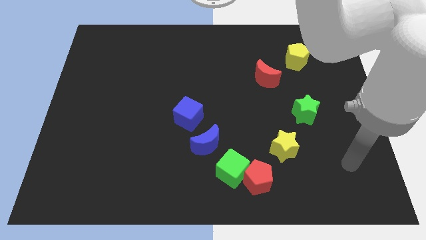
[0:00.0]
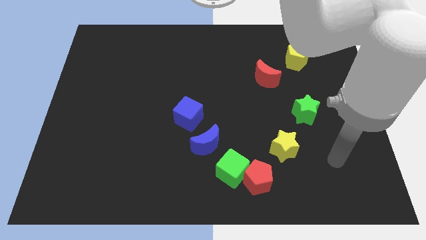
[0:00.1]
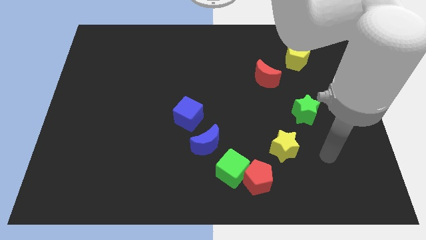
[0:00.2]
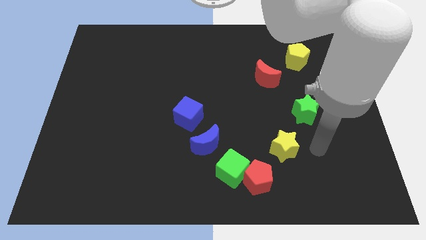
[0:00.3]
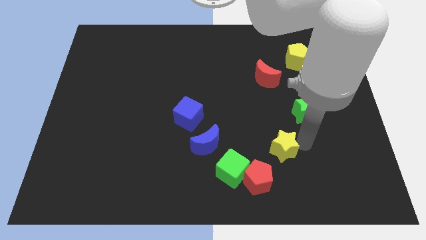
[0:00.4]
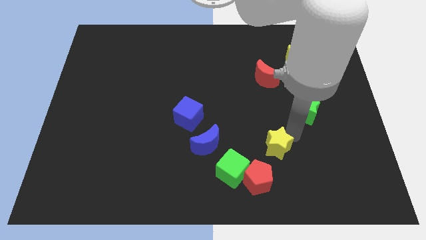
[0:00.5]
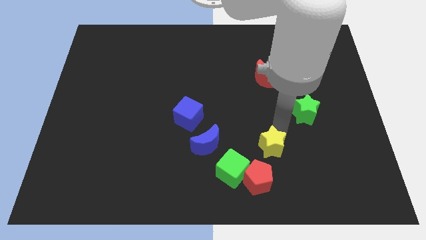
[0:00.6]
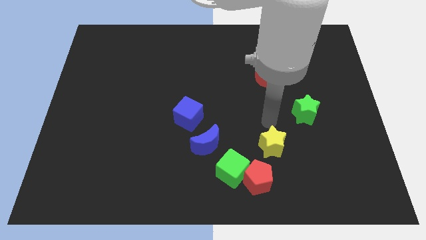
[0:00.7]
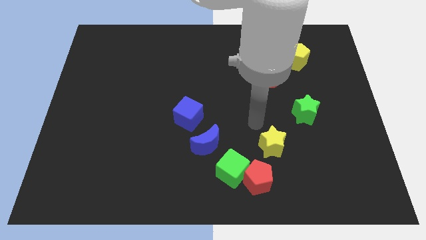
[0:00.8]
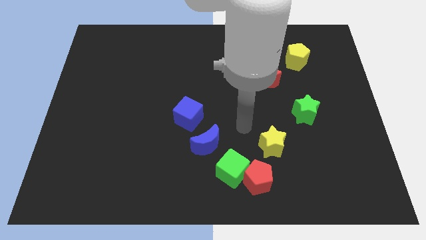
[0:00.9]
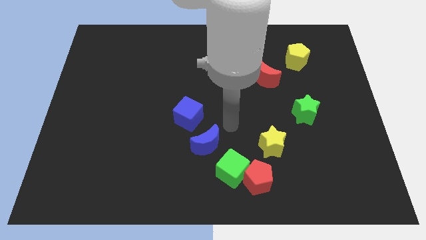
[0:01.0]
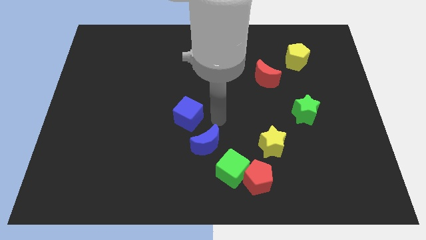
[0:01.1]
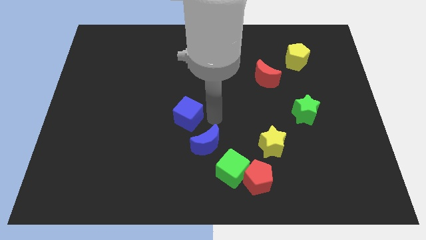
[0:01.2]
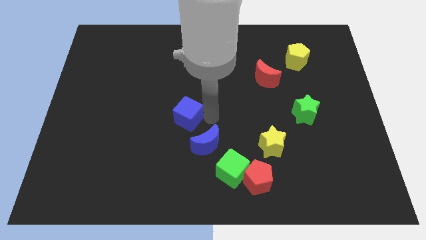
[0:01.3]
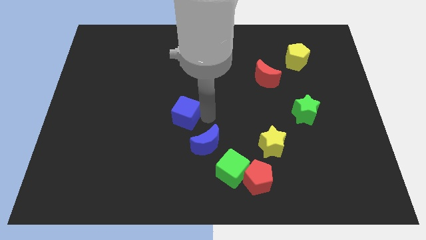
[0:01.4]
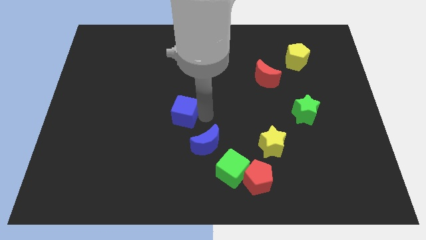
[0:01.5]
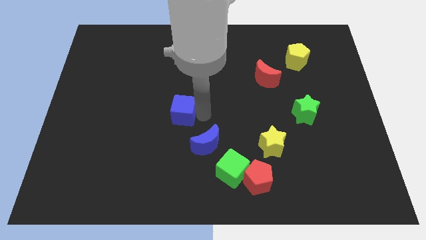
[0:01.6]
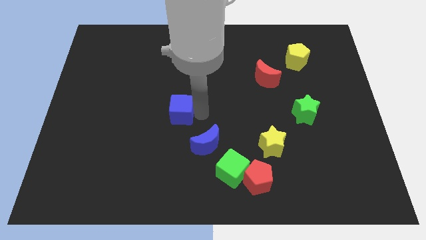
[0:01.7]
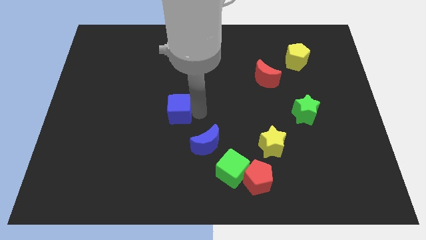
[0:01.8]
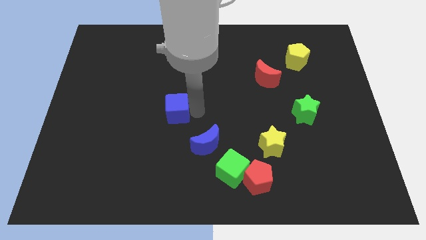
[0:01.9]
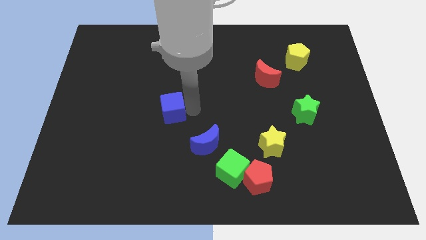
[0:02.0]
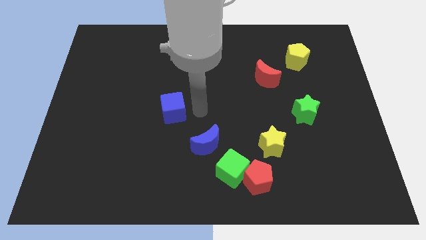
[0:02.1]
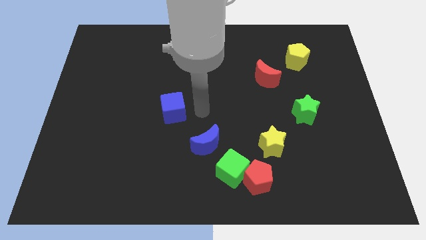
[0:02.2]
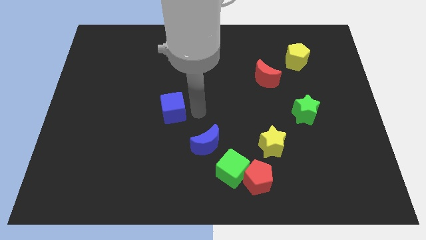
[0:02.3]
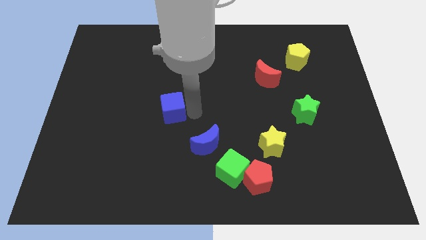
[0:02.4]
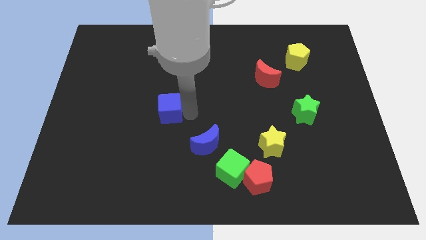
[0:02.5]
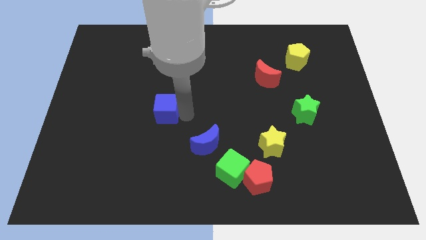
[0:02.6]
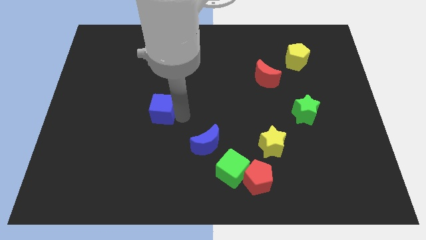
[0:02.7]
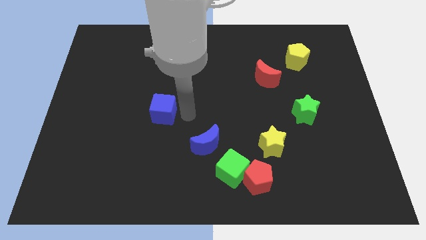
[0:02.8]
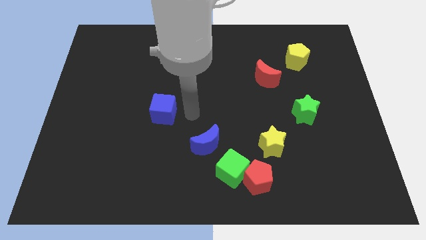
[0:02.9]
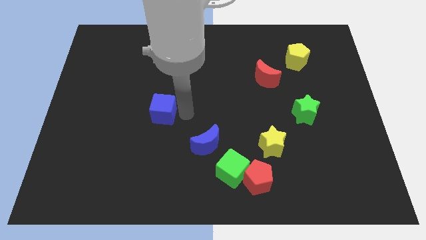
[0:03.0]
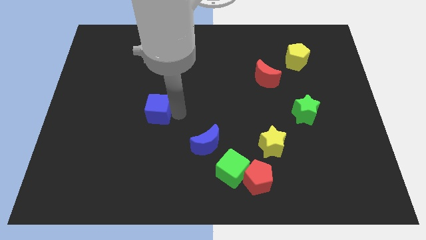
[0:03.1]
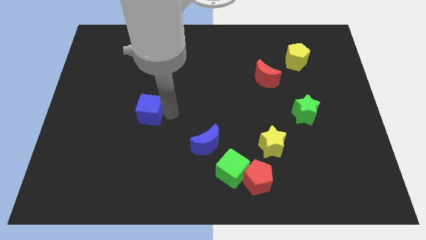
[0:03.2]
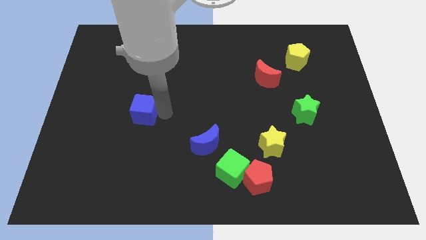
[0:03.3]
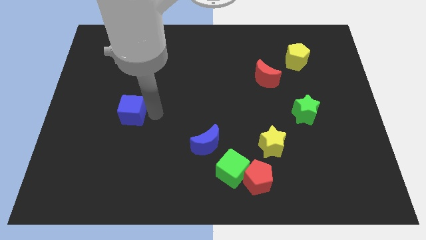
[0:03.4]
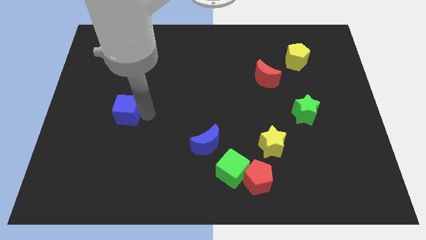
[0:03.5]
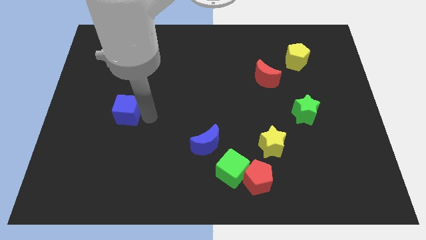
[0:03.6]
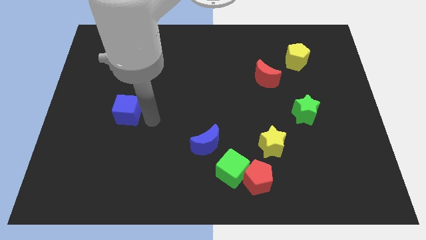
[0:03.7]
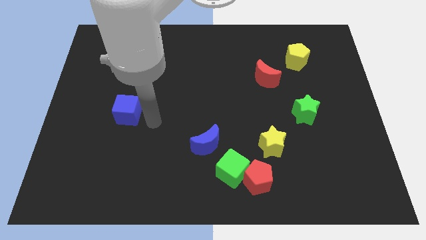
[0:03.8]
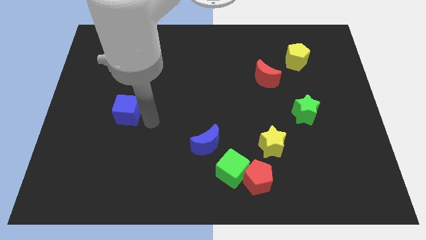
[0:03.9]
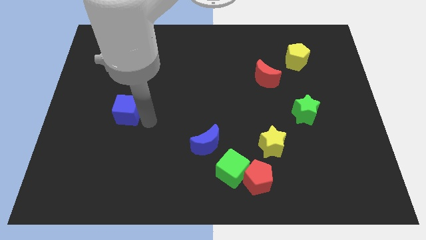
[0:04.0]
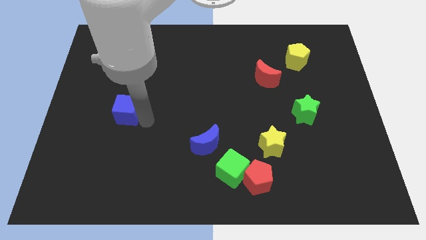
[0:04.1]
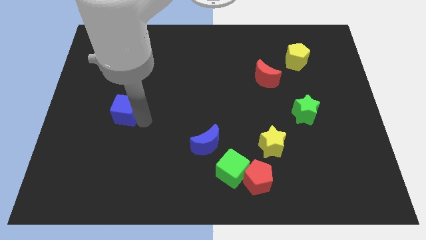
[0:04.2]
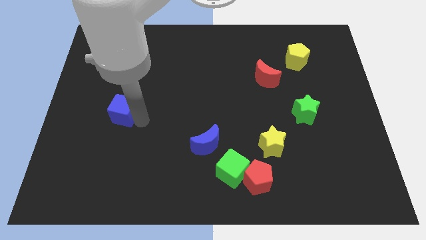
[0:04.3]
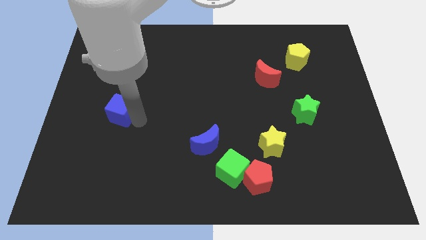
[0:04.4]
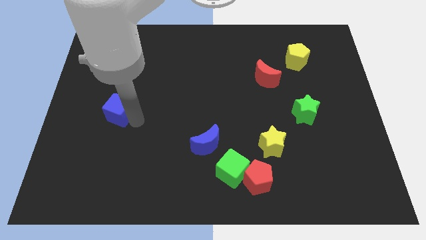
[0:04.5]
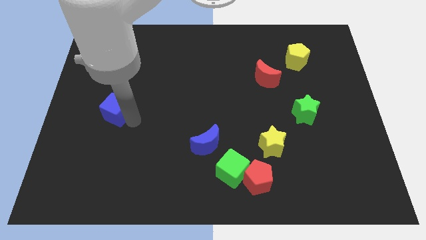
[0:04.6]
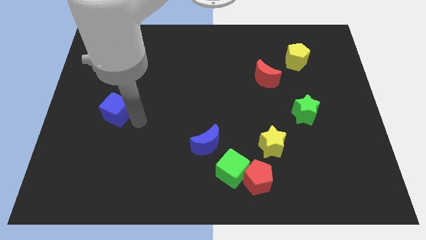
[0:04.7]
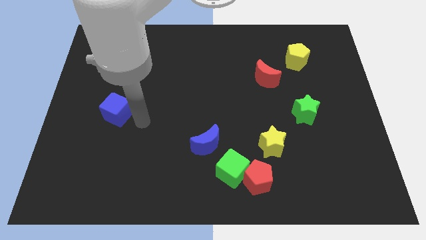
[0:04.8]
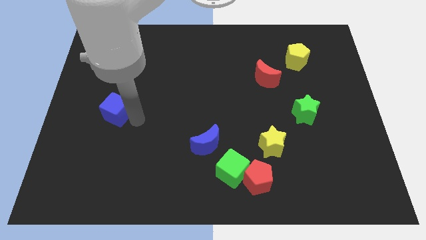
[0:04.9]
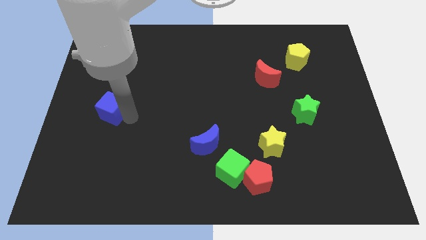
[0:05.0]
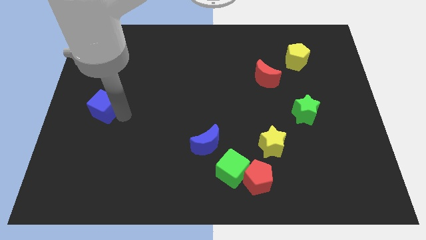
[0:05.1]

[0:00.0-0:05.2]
slide the blue cube to the left side of the board

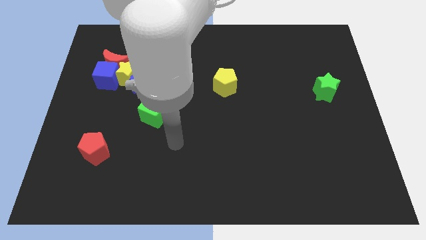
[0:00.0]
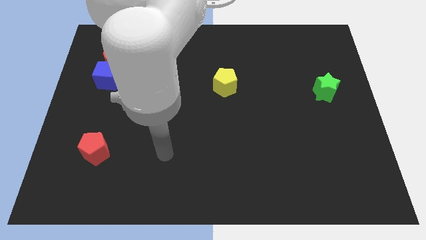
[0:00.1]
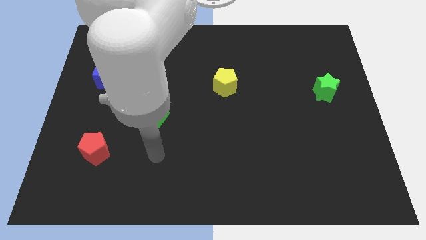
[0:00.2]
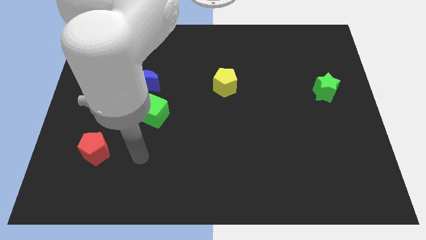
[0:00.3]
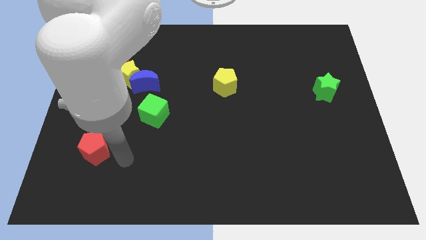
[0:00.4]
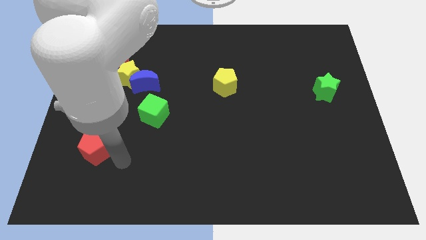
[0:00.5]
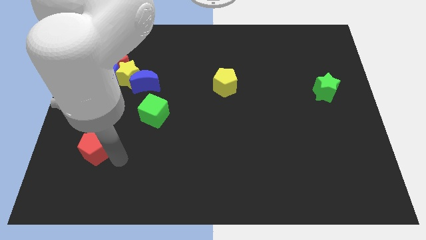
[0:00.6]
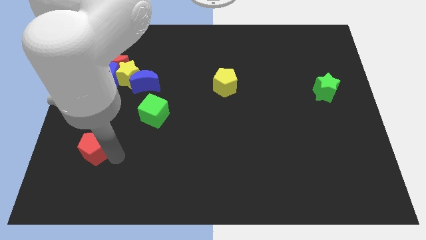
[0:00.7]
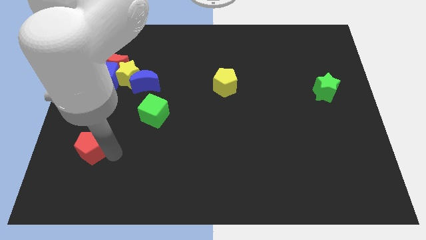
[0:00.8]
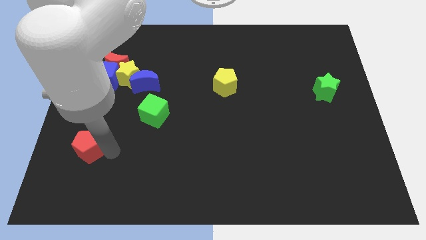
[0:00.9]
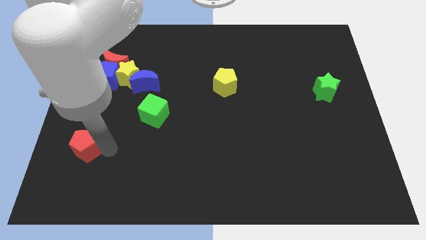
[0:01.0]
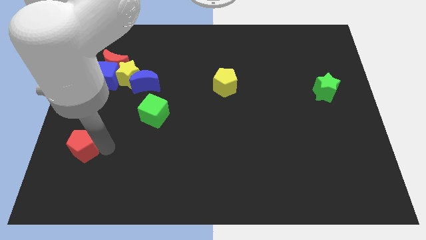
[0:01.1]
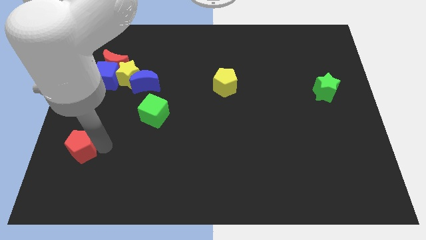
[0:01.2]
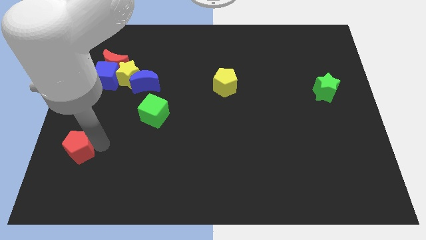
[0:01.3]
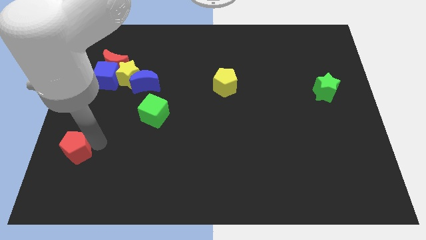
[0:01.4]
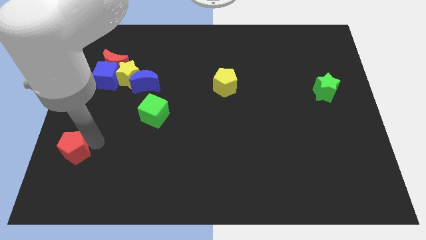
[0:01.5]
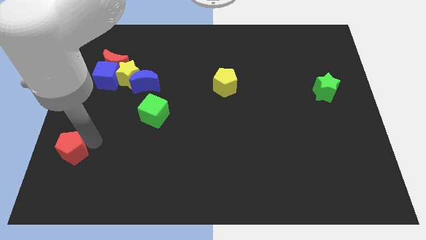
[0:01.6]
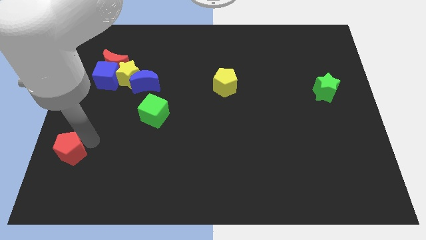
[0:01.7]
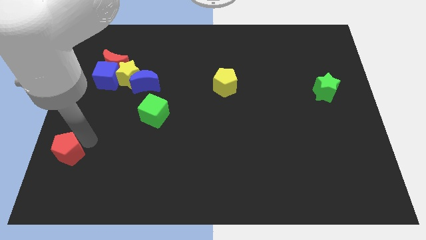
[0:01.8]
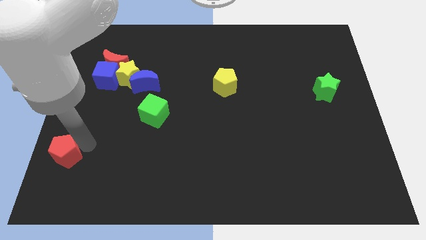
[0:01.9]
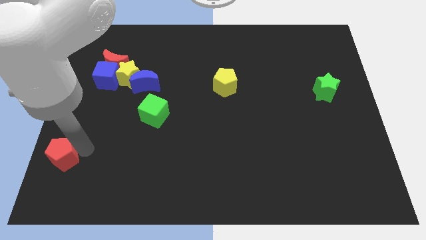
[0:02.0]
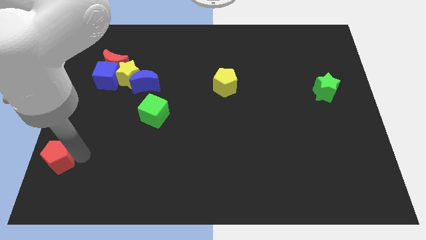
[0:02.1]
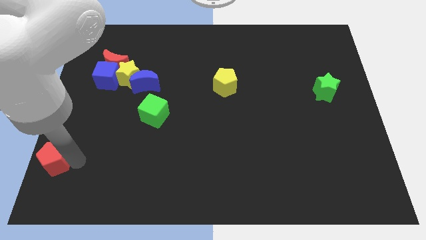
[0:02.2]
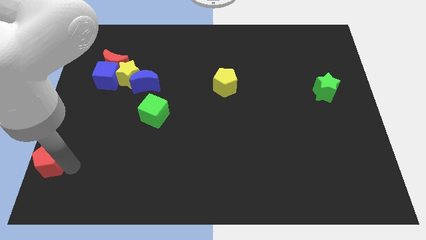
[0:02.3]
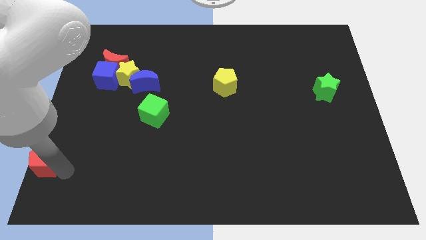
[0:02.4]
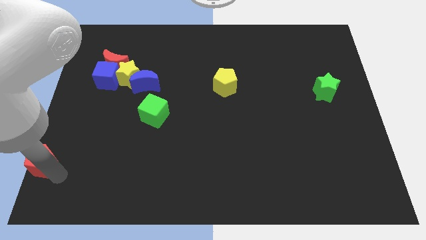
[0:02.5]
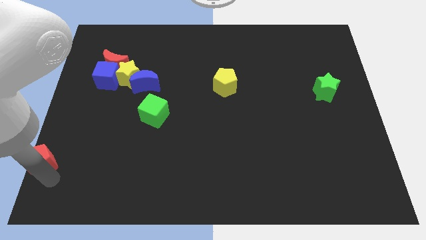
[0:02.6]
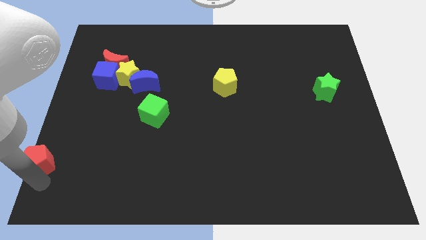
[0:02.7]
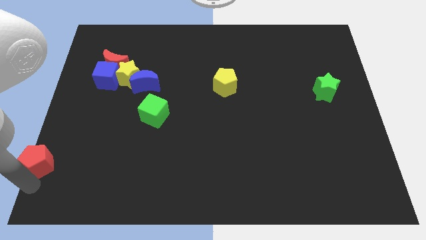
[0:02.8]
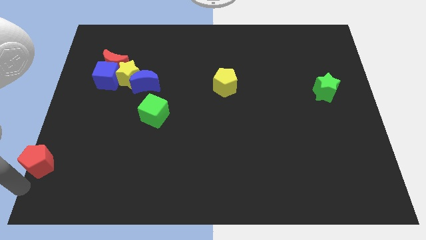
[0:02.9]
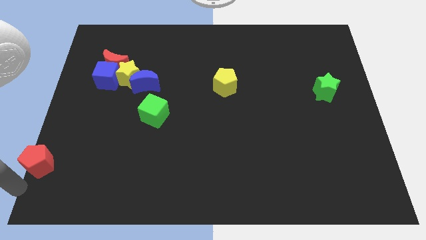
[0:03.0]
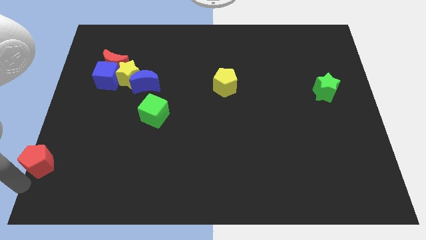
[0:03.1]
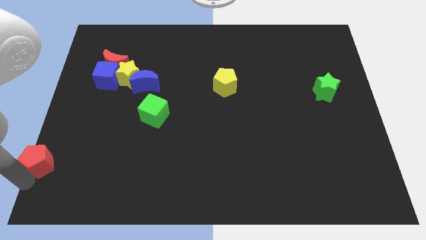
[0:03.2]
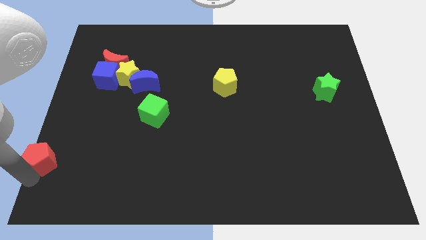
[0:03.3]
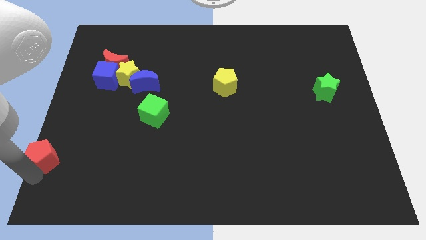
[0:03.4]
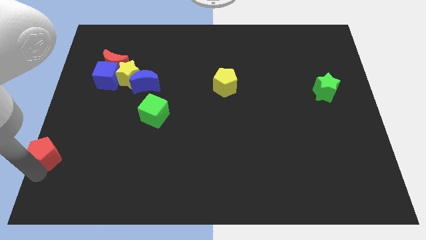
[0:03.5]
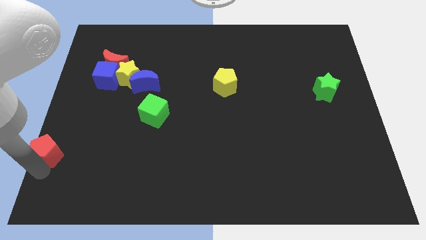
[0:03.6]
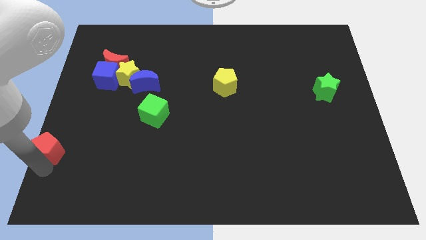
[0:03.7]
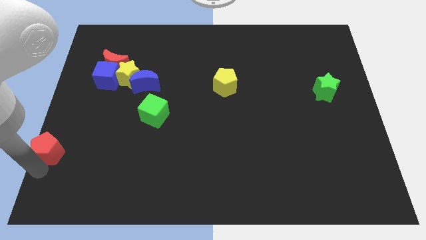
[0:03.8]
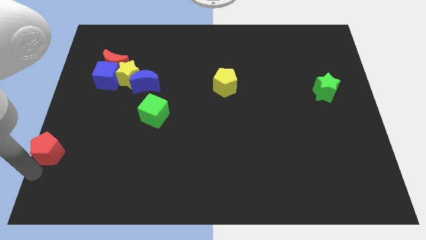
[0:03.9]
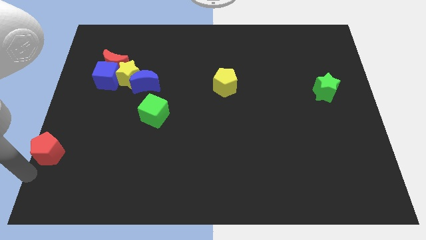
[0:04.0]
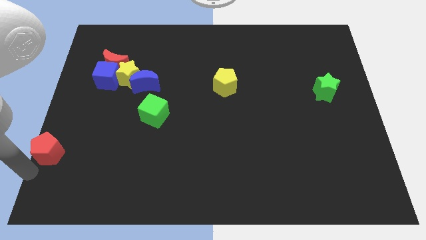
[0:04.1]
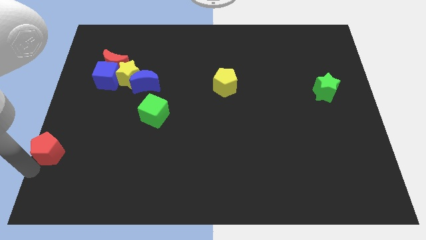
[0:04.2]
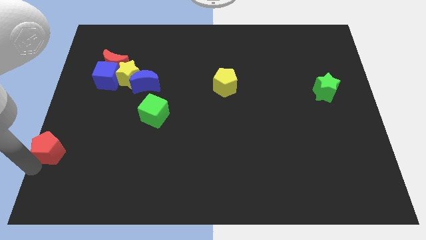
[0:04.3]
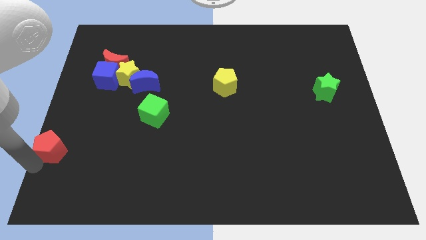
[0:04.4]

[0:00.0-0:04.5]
put the red pentagon to the left side of the board
